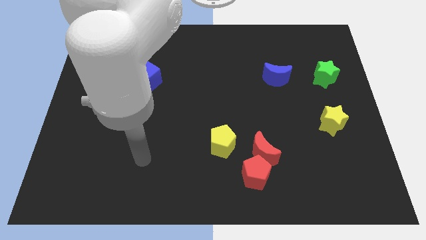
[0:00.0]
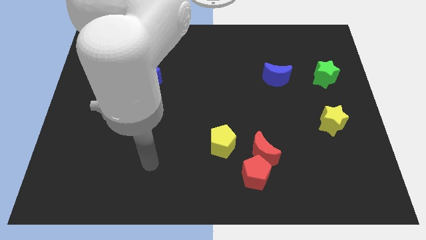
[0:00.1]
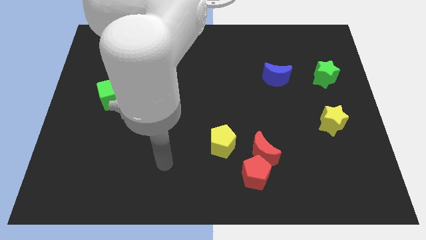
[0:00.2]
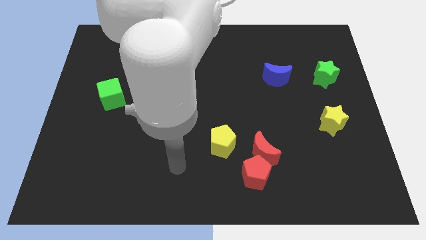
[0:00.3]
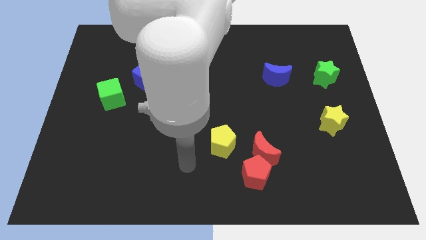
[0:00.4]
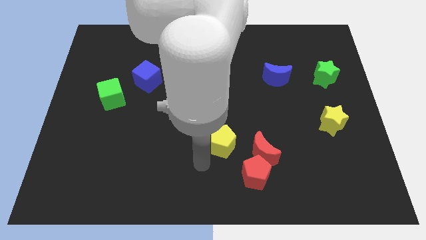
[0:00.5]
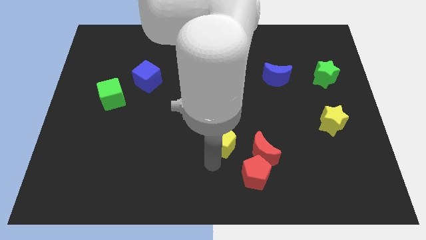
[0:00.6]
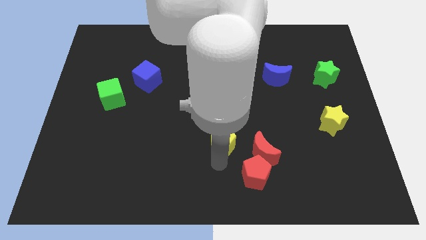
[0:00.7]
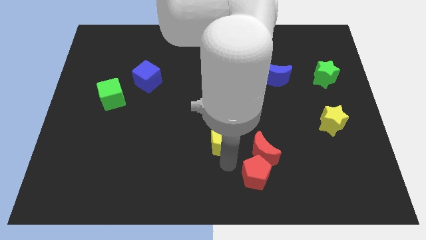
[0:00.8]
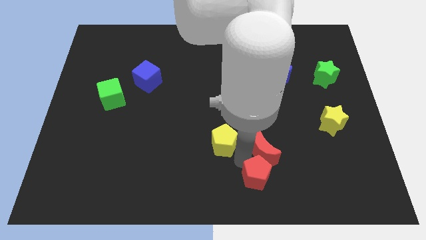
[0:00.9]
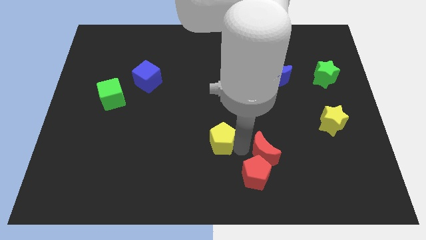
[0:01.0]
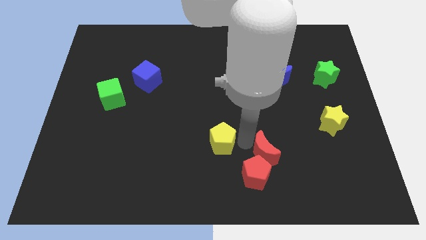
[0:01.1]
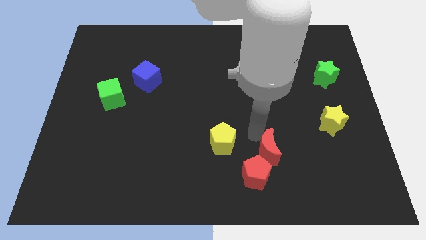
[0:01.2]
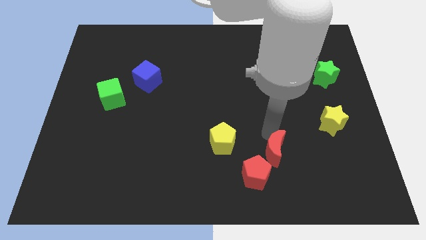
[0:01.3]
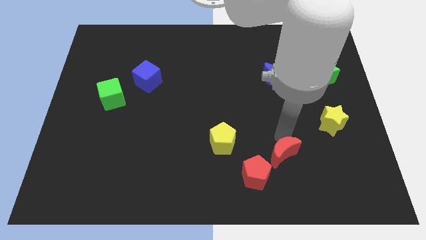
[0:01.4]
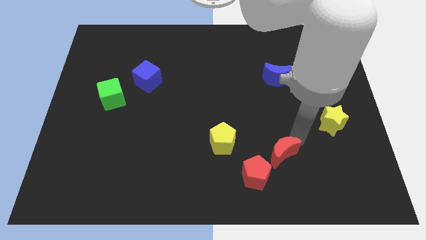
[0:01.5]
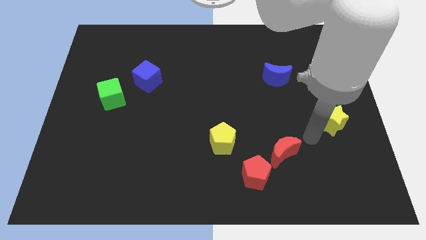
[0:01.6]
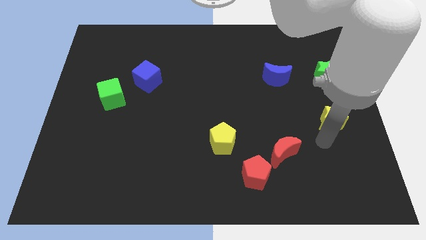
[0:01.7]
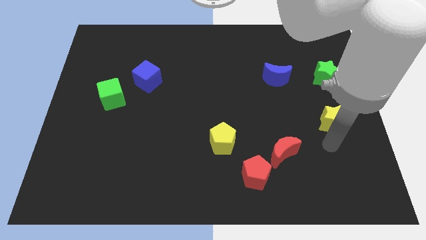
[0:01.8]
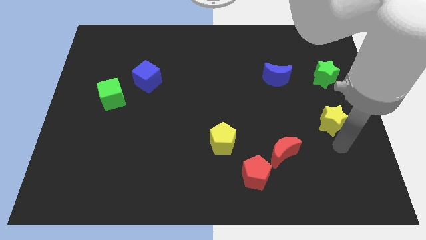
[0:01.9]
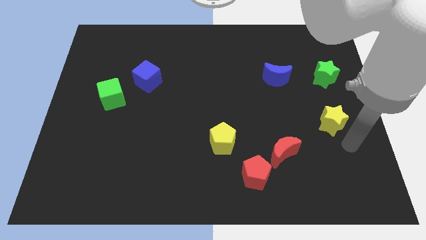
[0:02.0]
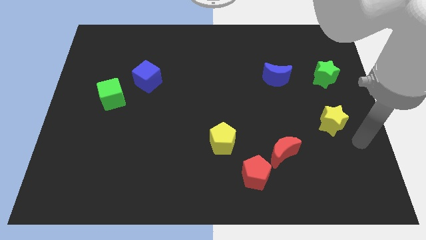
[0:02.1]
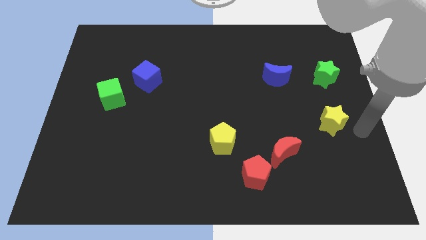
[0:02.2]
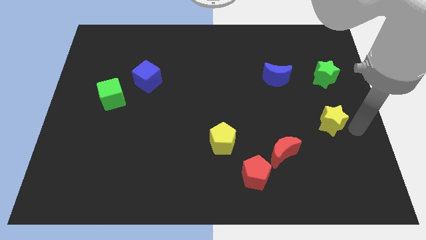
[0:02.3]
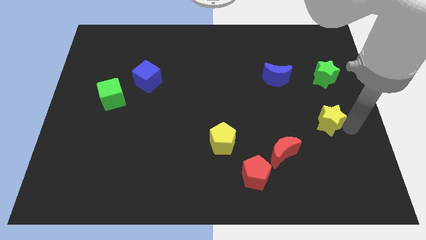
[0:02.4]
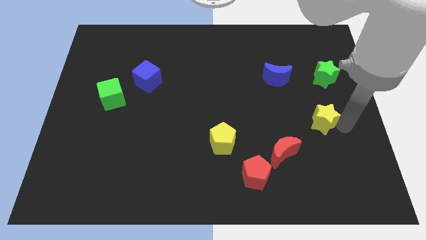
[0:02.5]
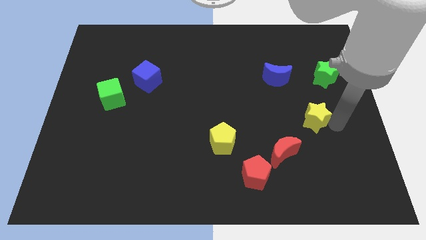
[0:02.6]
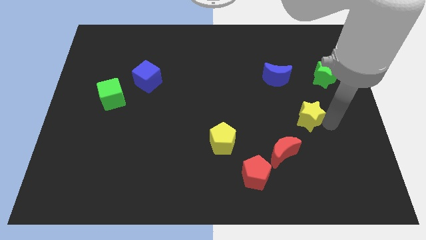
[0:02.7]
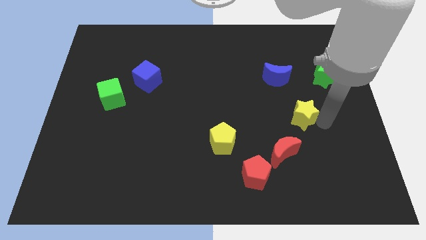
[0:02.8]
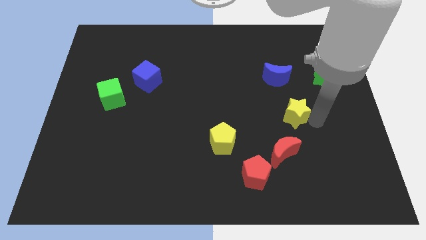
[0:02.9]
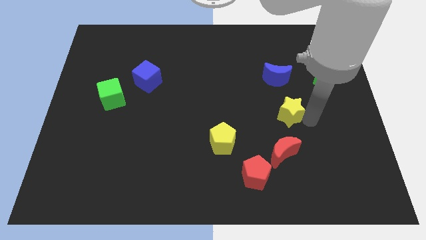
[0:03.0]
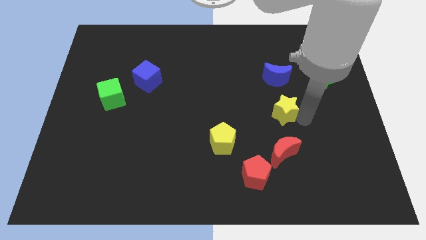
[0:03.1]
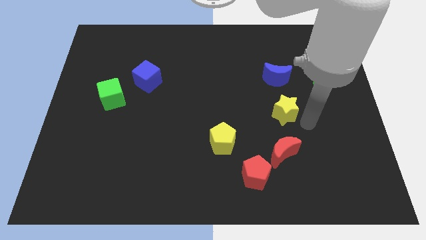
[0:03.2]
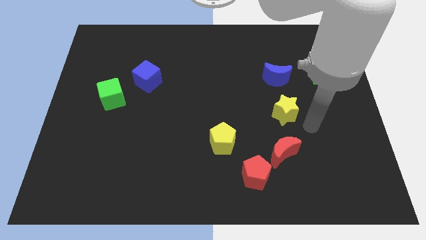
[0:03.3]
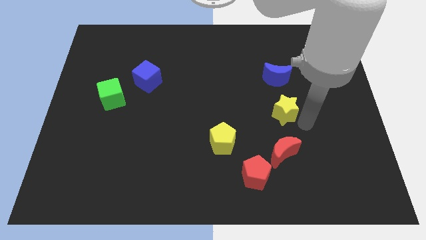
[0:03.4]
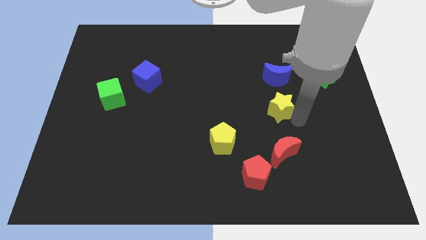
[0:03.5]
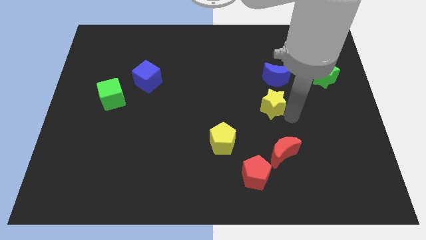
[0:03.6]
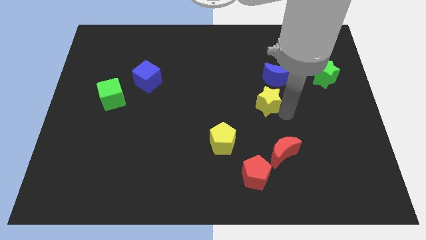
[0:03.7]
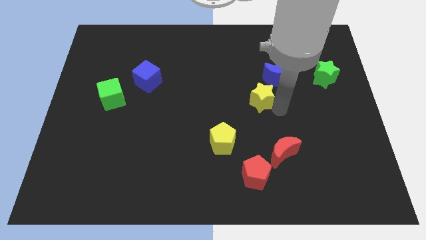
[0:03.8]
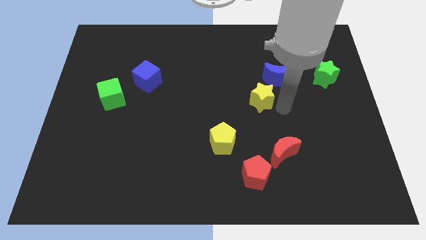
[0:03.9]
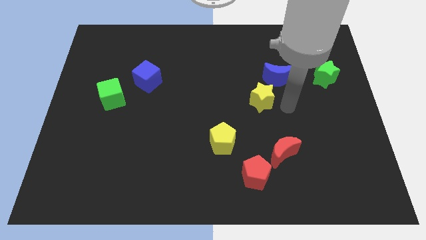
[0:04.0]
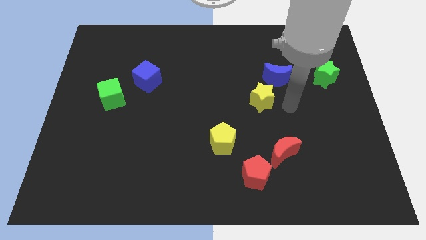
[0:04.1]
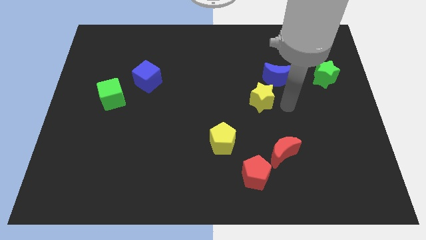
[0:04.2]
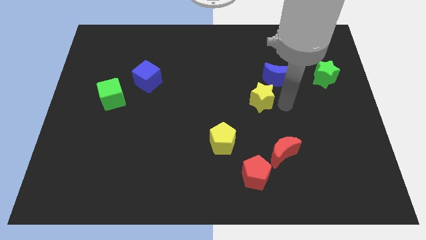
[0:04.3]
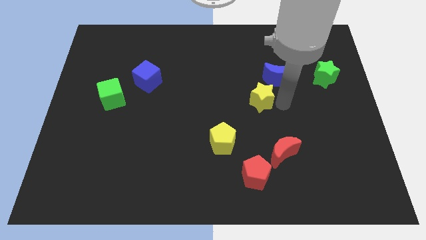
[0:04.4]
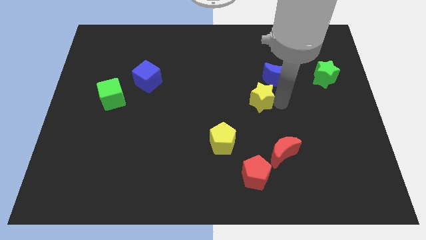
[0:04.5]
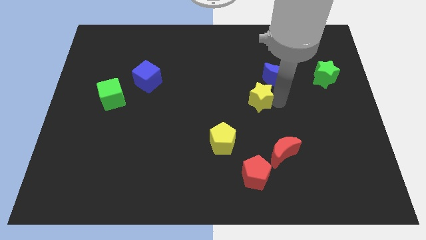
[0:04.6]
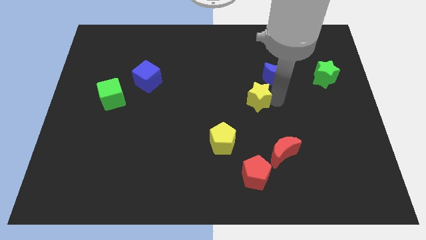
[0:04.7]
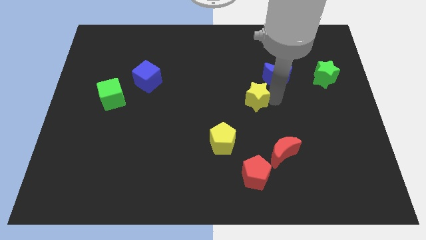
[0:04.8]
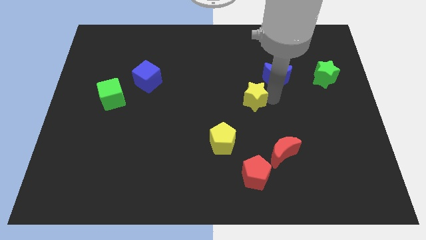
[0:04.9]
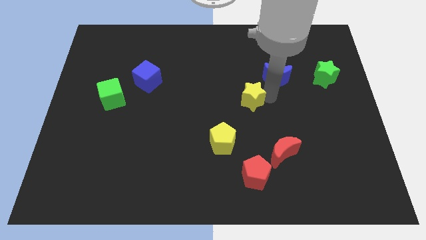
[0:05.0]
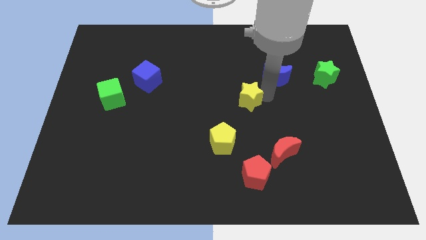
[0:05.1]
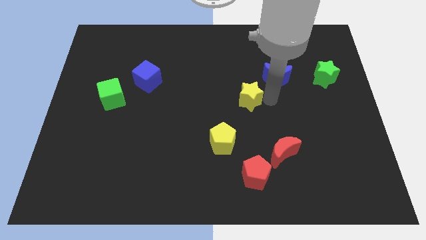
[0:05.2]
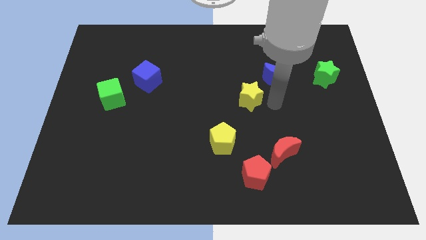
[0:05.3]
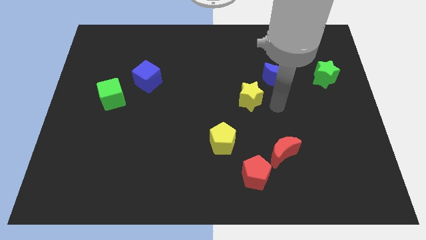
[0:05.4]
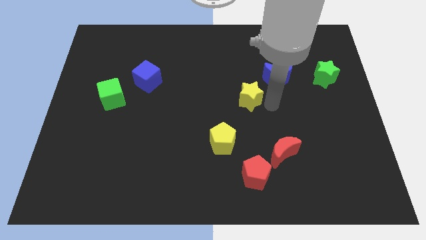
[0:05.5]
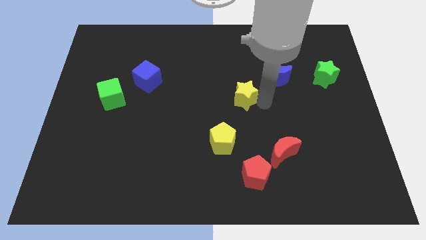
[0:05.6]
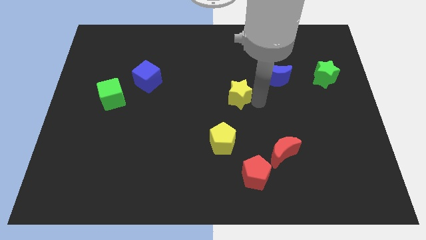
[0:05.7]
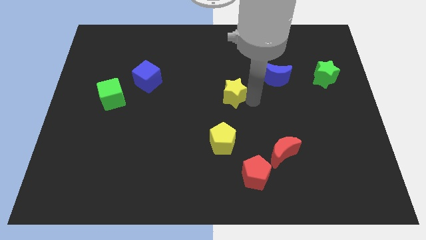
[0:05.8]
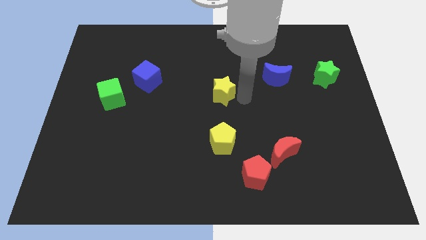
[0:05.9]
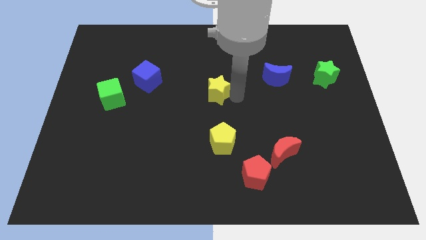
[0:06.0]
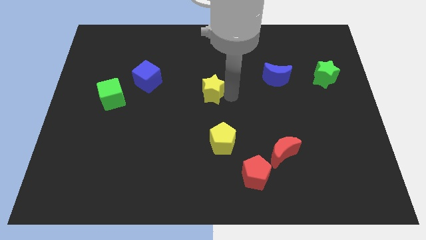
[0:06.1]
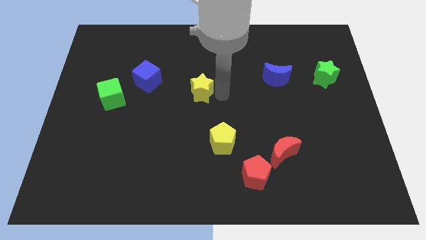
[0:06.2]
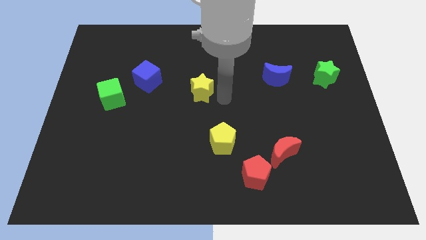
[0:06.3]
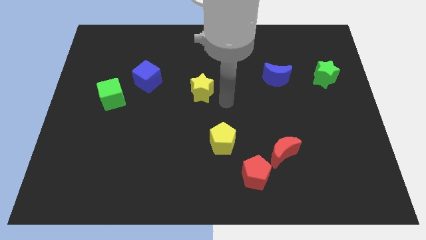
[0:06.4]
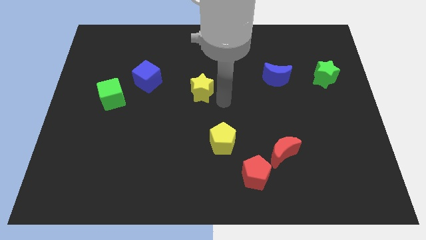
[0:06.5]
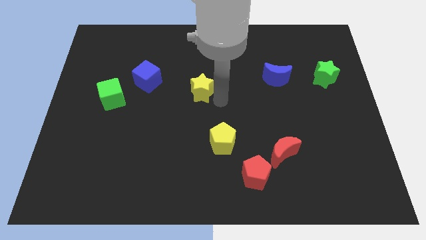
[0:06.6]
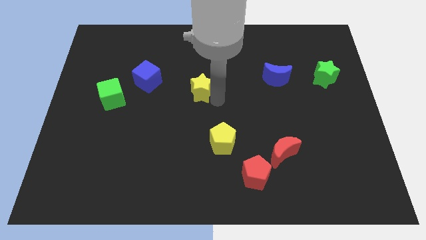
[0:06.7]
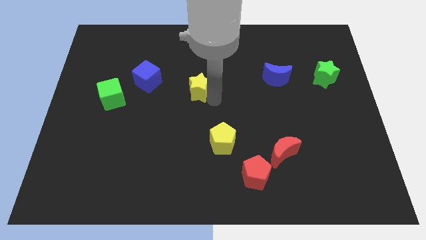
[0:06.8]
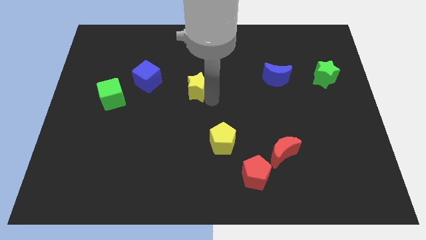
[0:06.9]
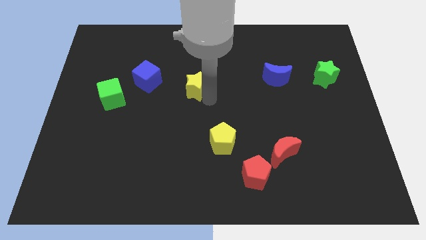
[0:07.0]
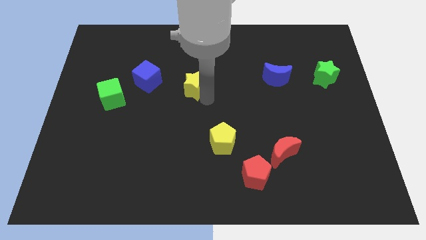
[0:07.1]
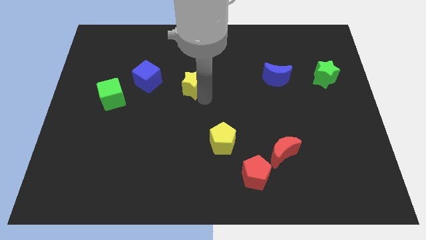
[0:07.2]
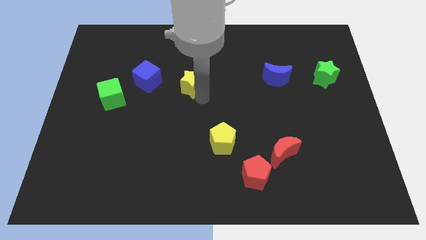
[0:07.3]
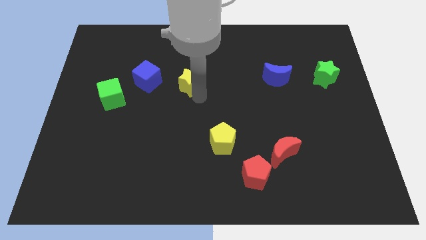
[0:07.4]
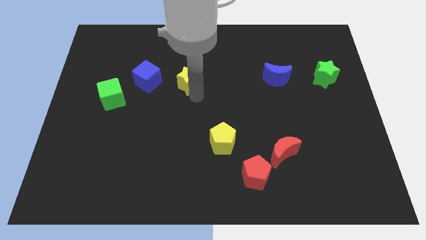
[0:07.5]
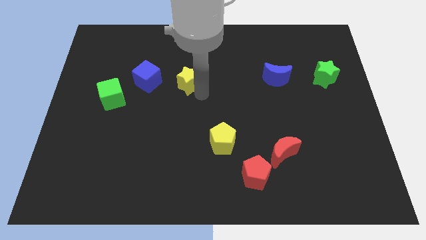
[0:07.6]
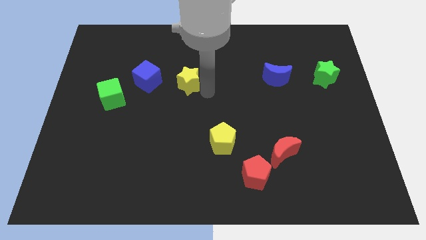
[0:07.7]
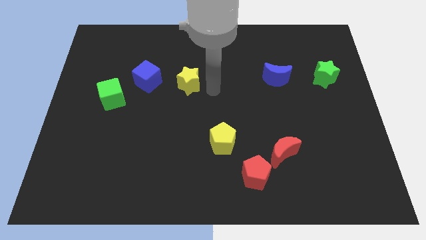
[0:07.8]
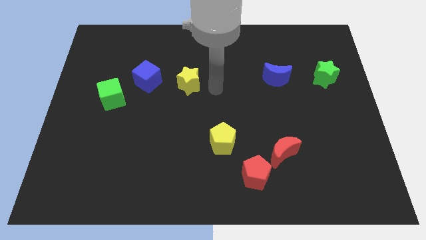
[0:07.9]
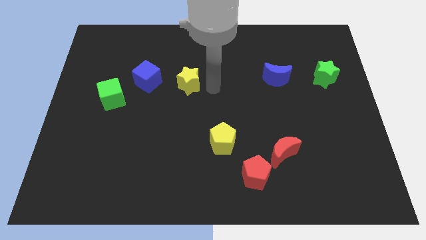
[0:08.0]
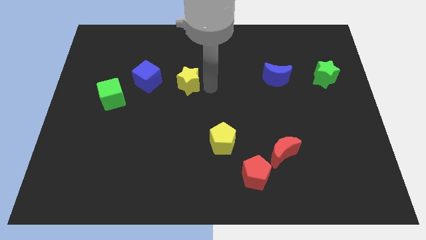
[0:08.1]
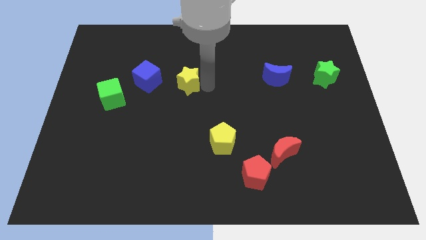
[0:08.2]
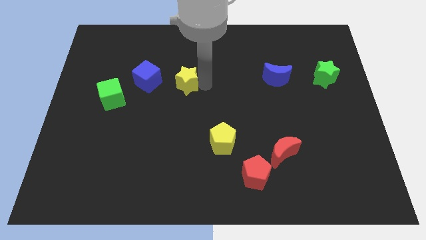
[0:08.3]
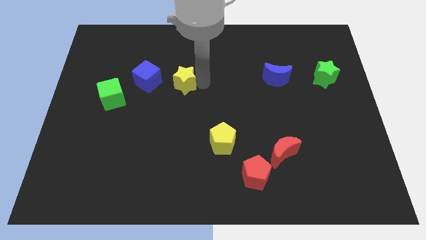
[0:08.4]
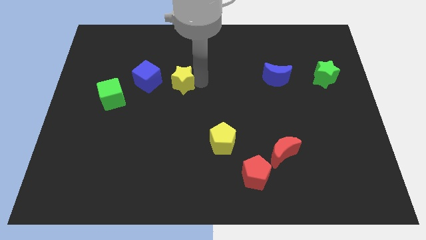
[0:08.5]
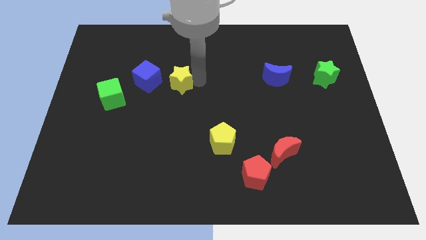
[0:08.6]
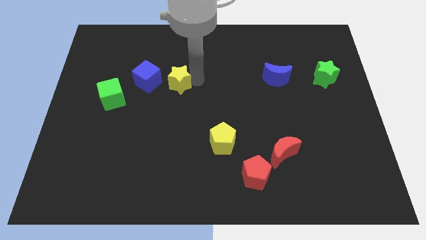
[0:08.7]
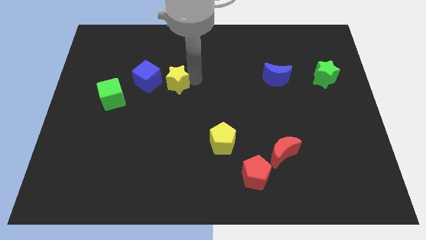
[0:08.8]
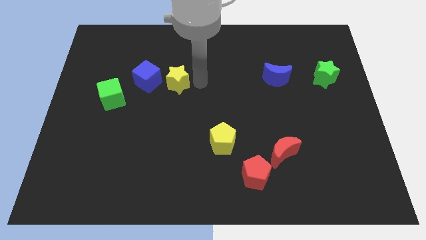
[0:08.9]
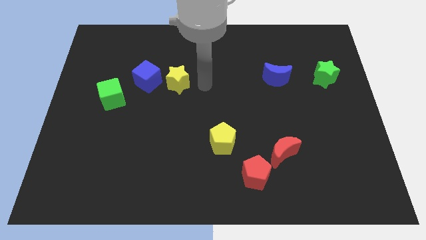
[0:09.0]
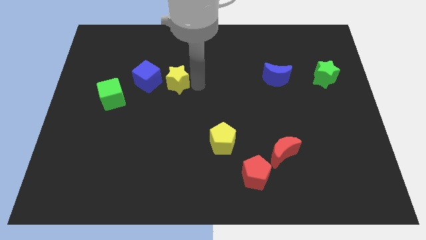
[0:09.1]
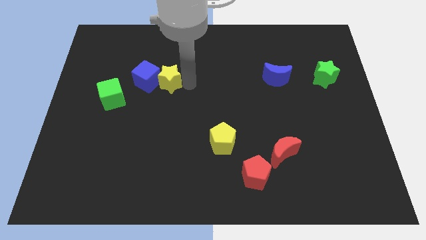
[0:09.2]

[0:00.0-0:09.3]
move the yellow star towards the blue cube
